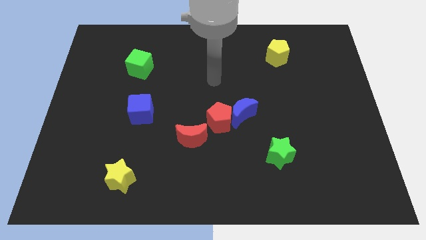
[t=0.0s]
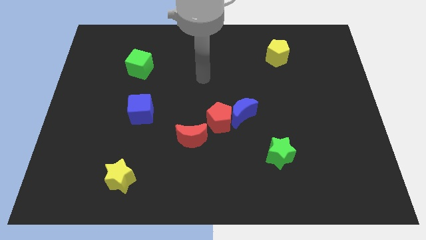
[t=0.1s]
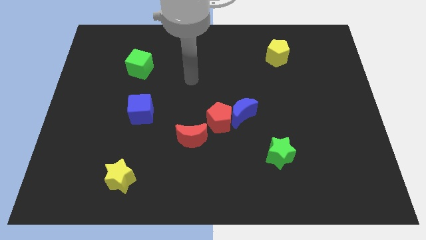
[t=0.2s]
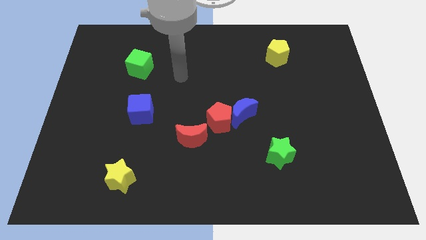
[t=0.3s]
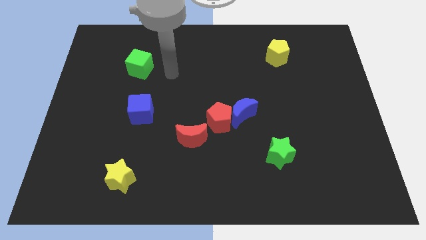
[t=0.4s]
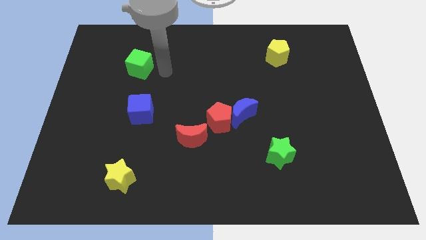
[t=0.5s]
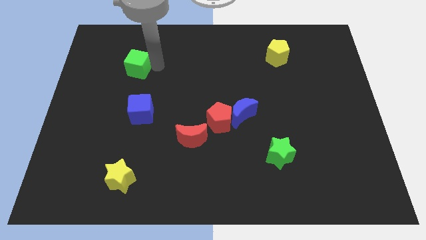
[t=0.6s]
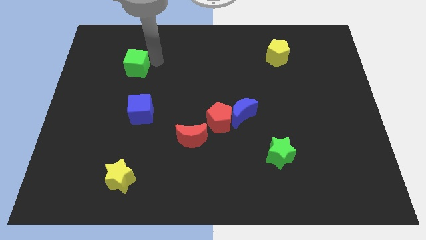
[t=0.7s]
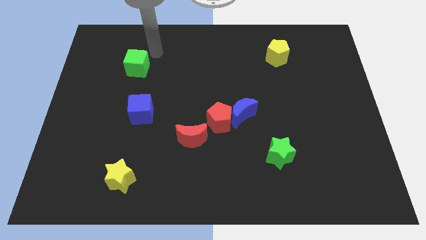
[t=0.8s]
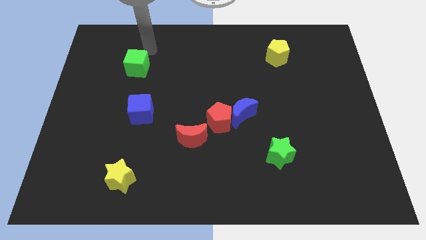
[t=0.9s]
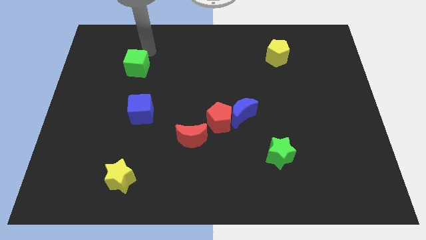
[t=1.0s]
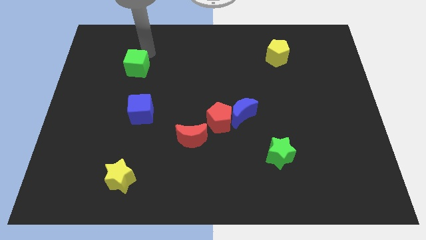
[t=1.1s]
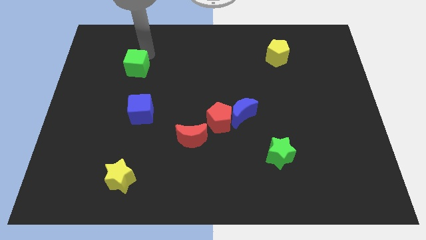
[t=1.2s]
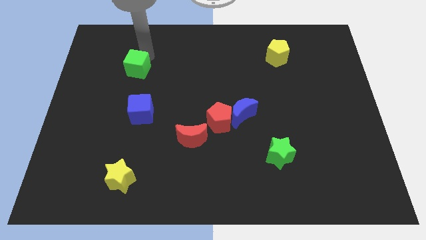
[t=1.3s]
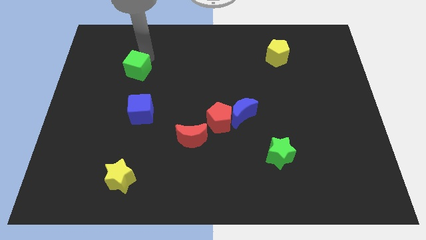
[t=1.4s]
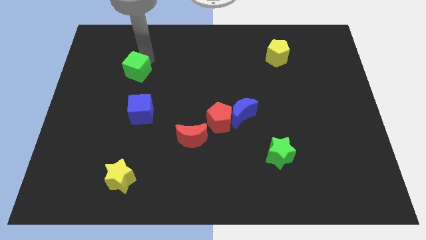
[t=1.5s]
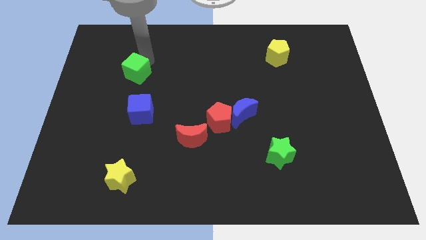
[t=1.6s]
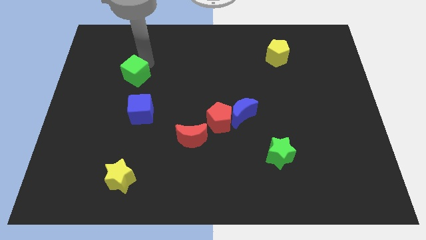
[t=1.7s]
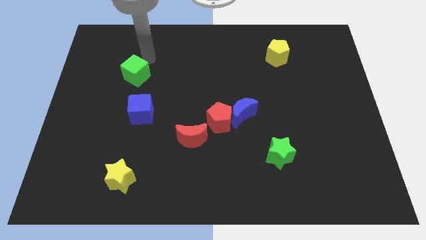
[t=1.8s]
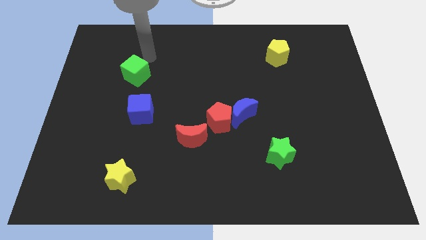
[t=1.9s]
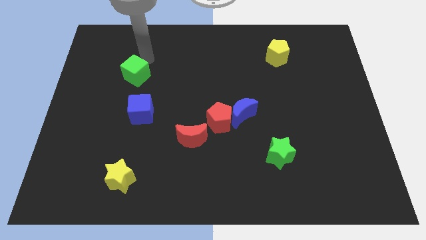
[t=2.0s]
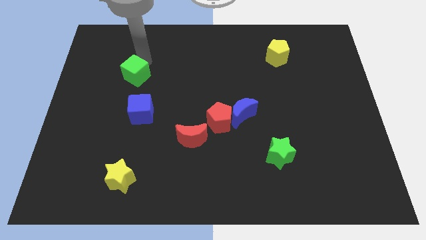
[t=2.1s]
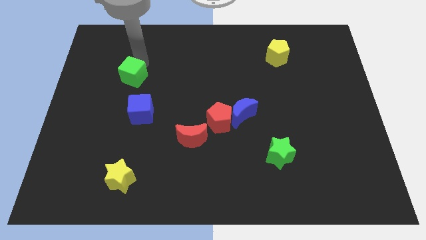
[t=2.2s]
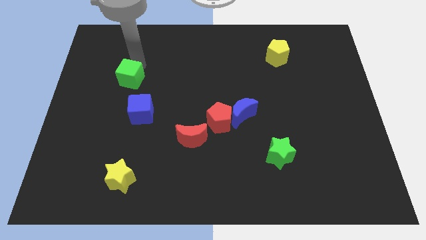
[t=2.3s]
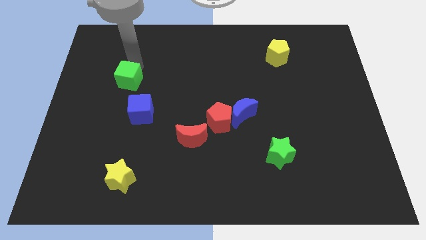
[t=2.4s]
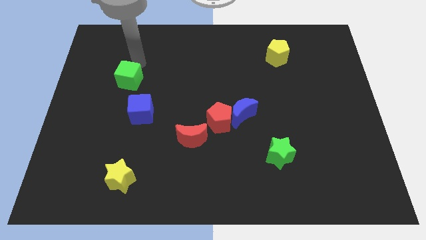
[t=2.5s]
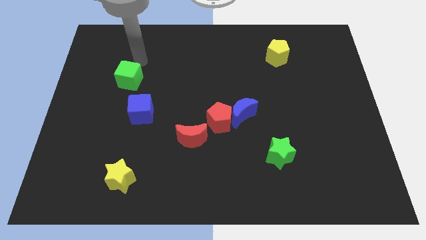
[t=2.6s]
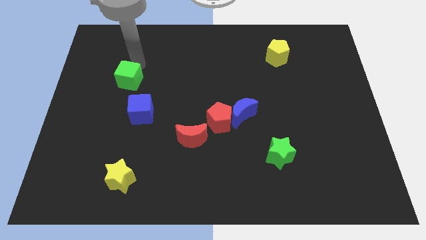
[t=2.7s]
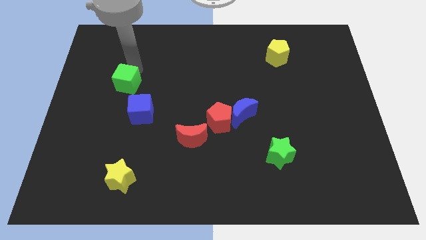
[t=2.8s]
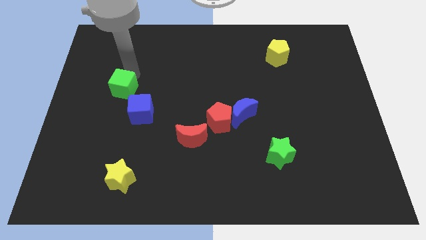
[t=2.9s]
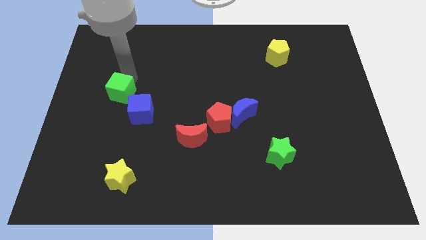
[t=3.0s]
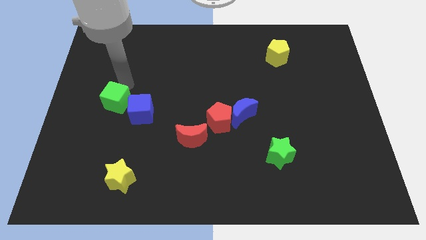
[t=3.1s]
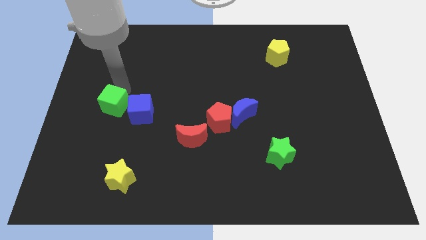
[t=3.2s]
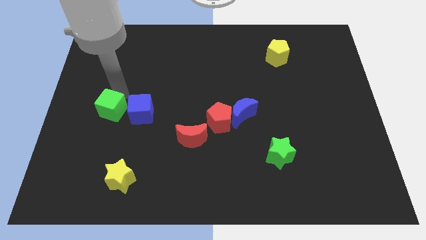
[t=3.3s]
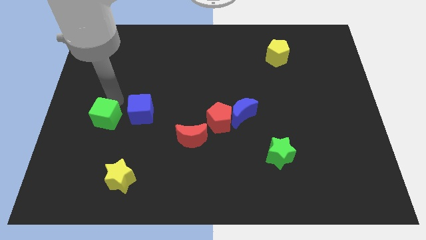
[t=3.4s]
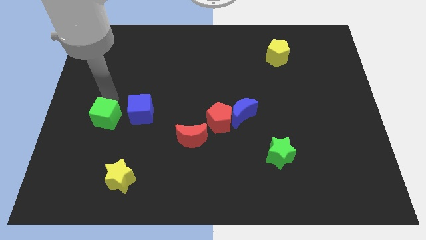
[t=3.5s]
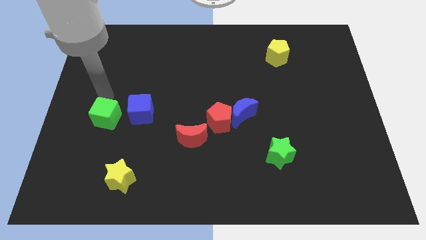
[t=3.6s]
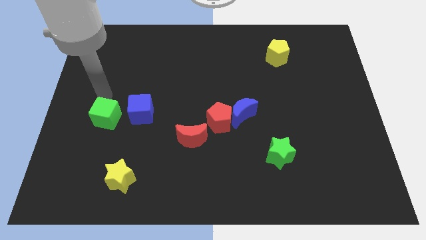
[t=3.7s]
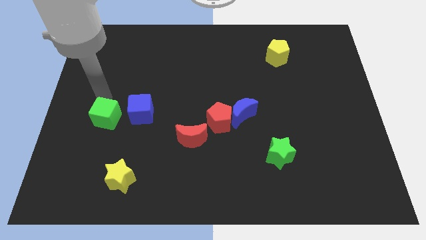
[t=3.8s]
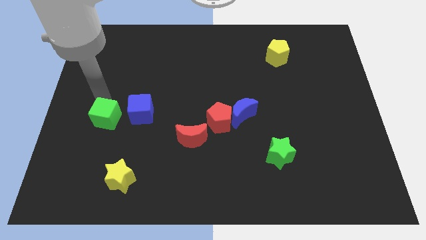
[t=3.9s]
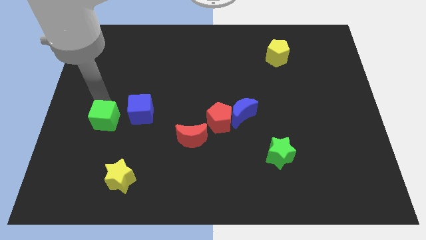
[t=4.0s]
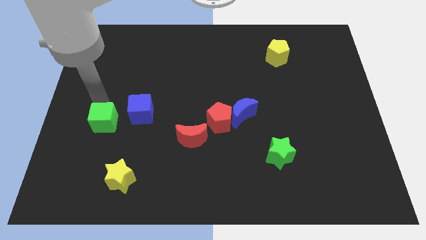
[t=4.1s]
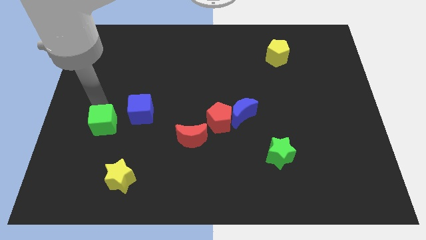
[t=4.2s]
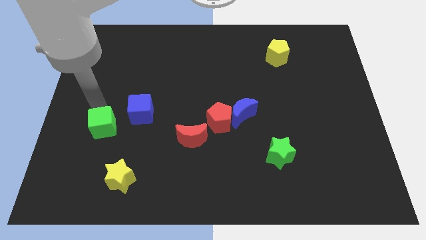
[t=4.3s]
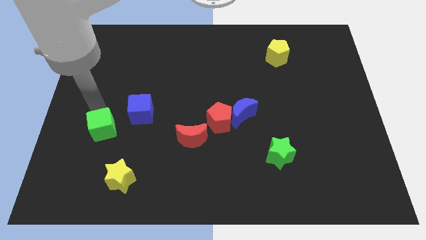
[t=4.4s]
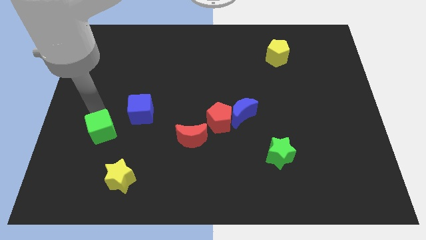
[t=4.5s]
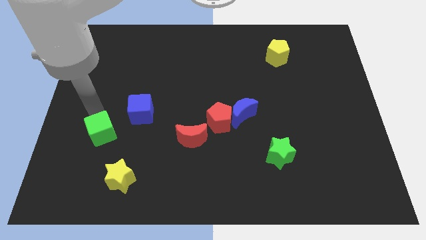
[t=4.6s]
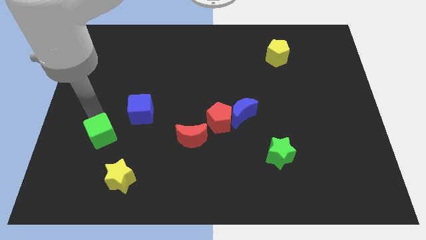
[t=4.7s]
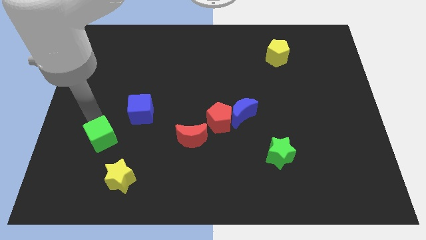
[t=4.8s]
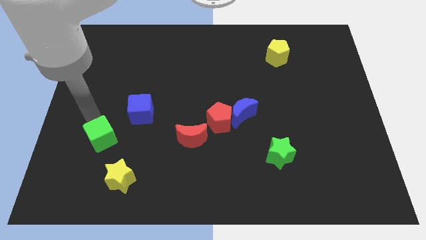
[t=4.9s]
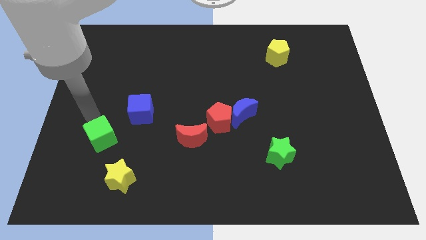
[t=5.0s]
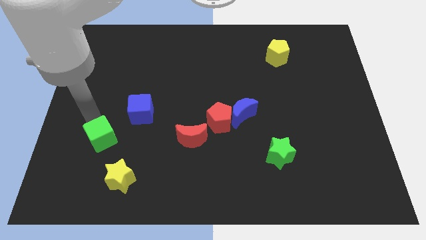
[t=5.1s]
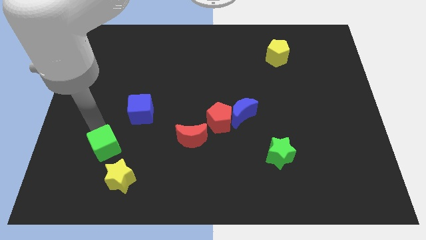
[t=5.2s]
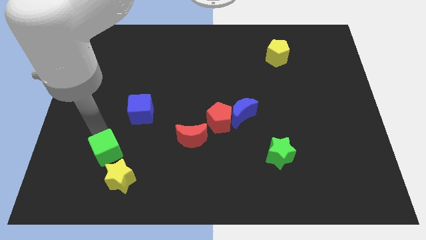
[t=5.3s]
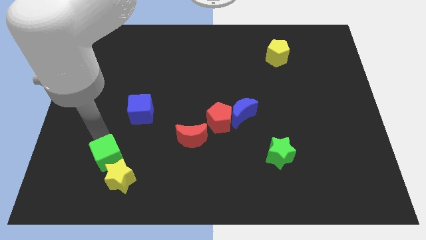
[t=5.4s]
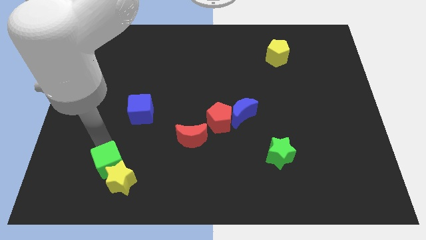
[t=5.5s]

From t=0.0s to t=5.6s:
push the green cube next to the yellow star

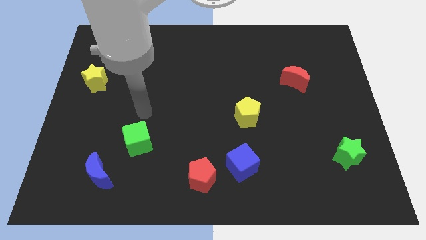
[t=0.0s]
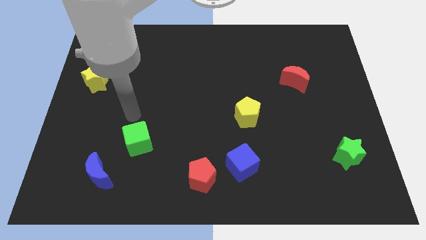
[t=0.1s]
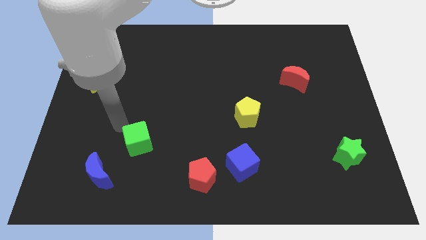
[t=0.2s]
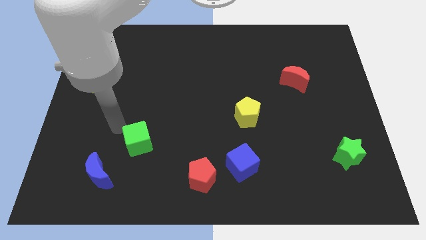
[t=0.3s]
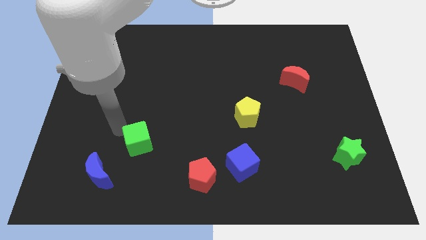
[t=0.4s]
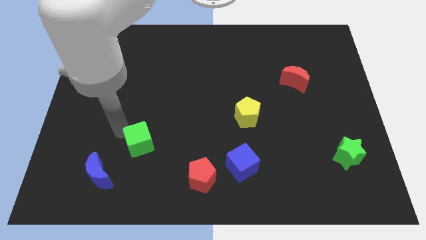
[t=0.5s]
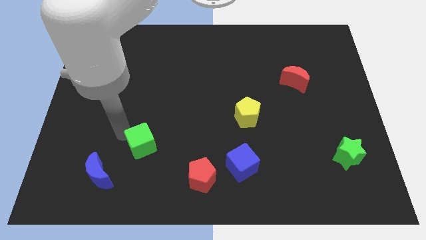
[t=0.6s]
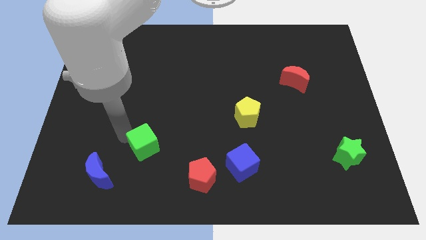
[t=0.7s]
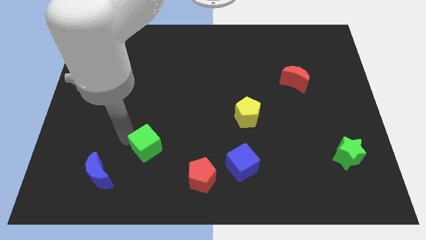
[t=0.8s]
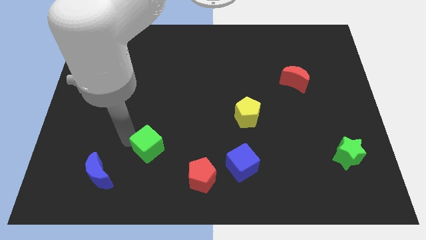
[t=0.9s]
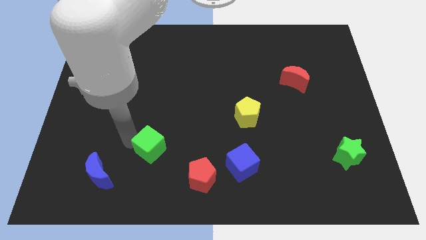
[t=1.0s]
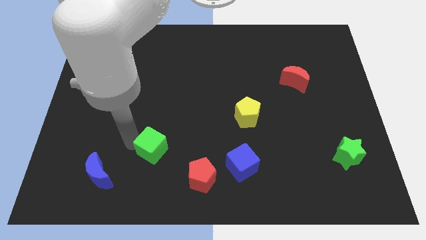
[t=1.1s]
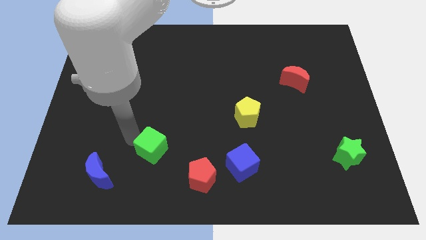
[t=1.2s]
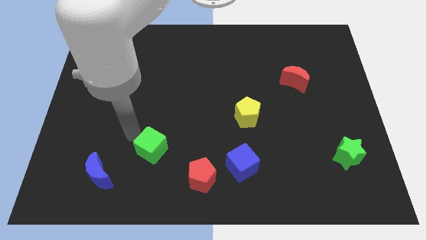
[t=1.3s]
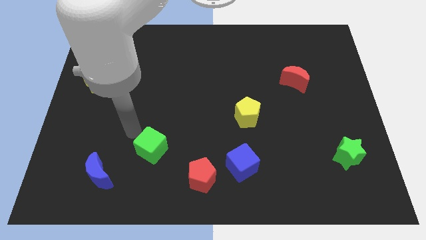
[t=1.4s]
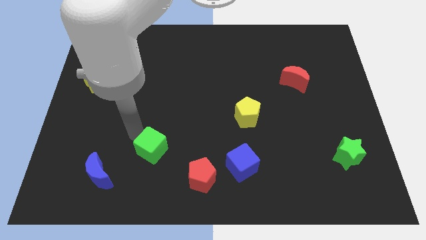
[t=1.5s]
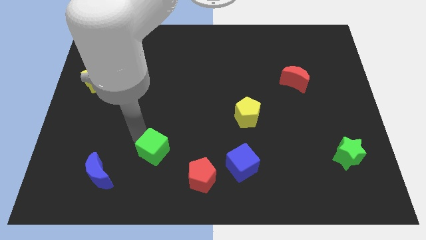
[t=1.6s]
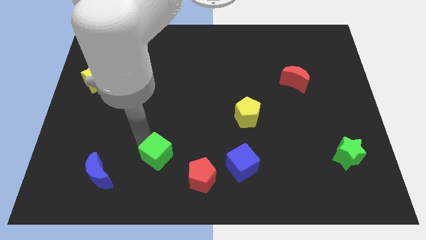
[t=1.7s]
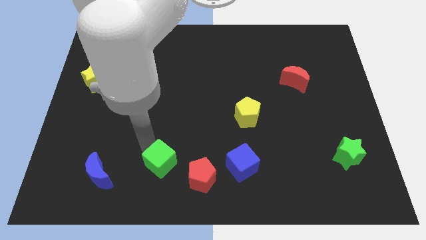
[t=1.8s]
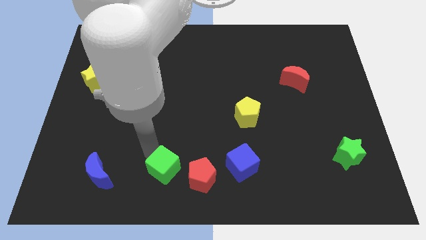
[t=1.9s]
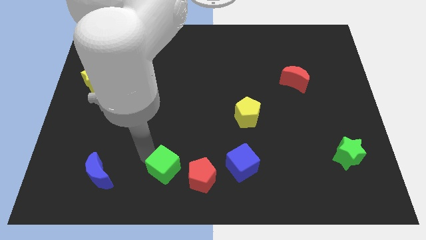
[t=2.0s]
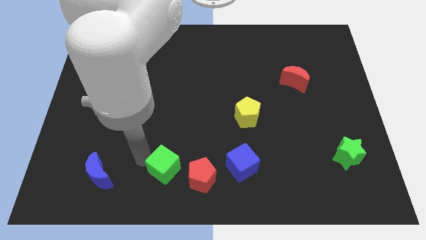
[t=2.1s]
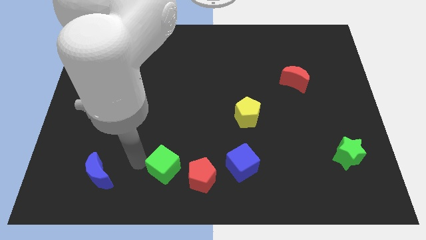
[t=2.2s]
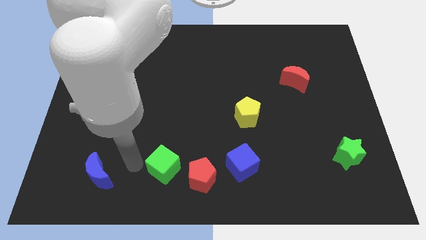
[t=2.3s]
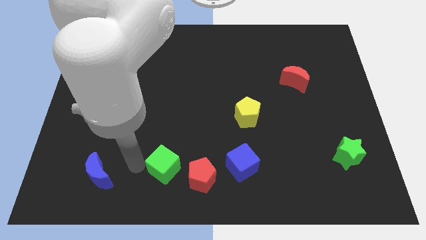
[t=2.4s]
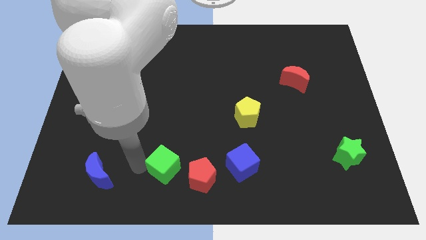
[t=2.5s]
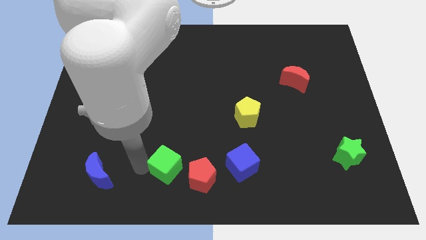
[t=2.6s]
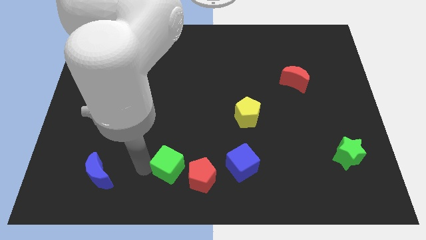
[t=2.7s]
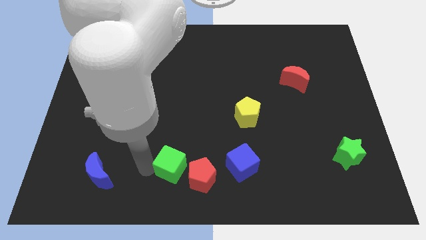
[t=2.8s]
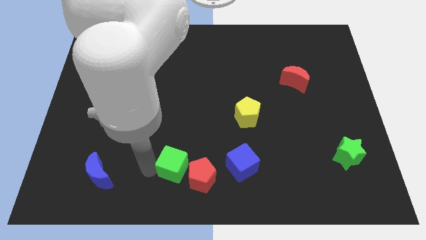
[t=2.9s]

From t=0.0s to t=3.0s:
slide the green cube next to the red pentagon
